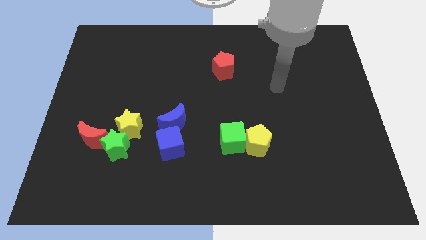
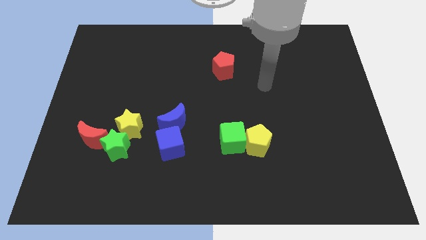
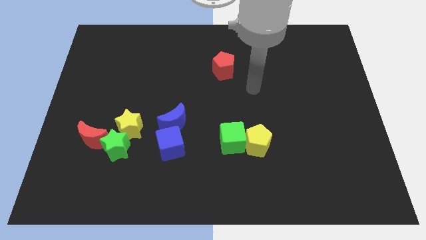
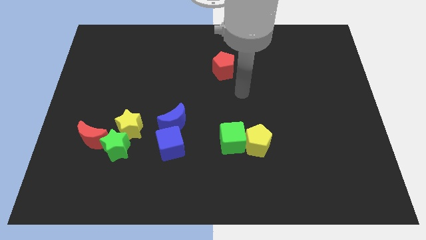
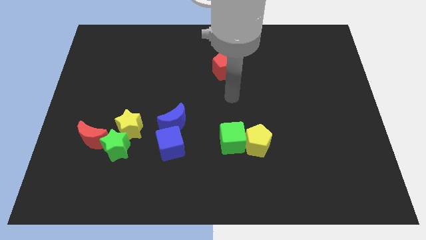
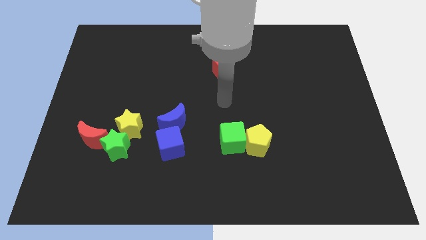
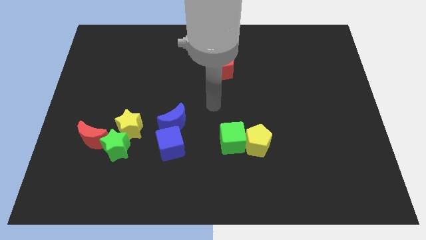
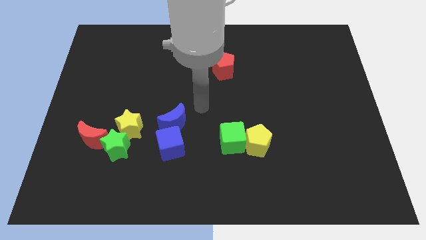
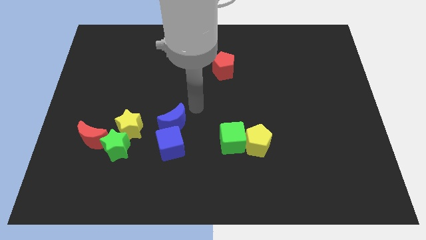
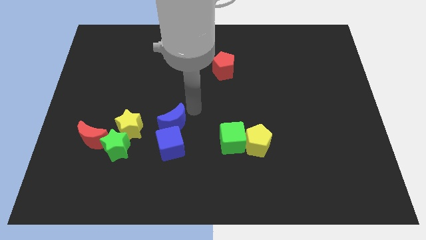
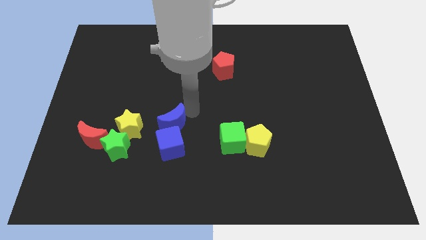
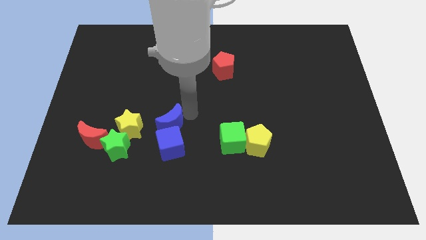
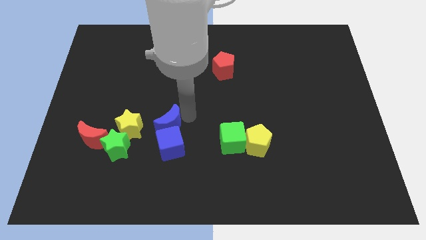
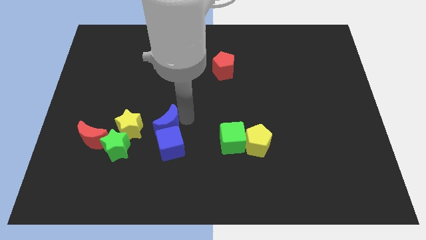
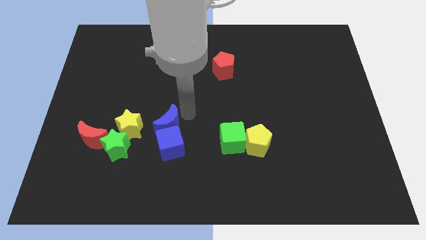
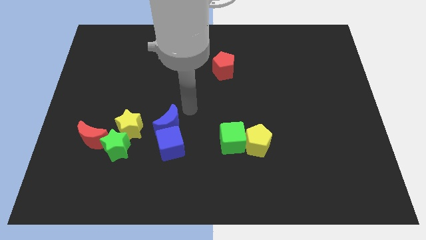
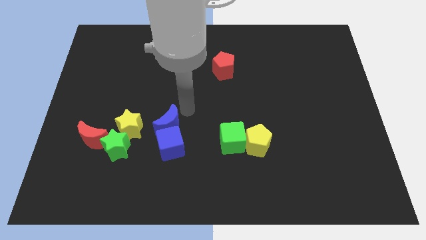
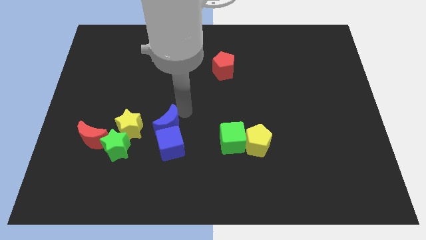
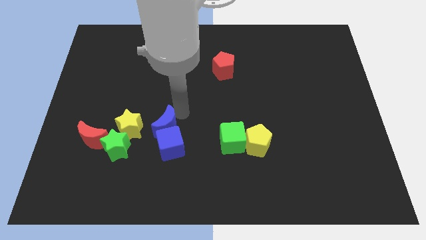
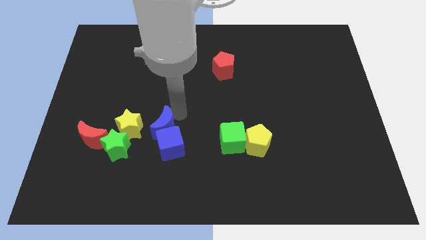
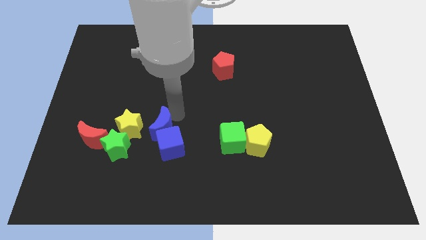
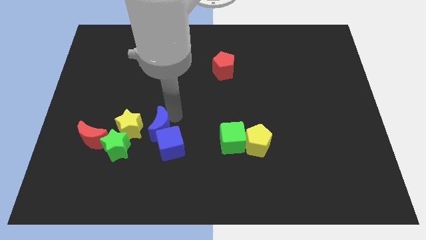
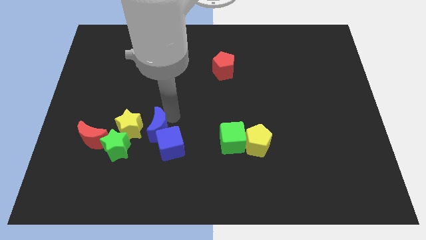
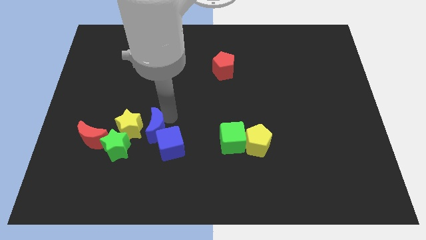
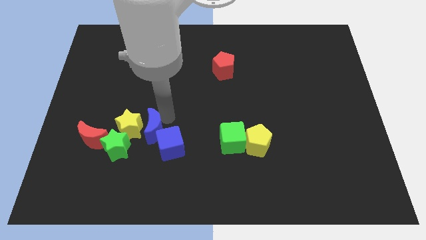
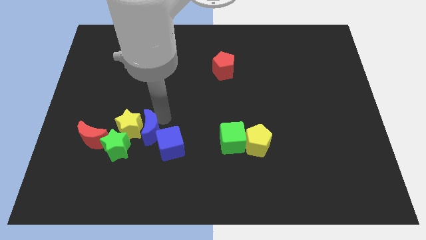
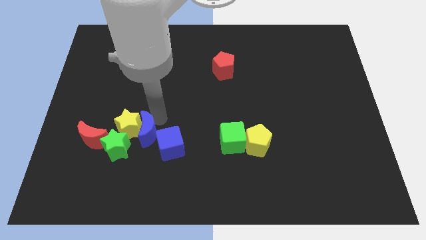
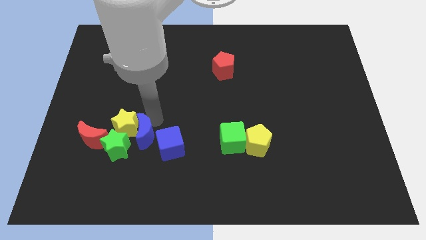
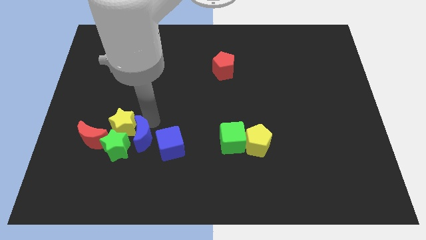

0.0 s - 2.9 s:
move the blue moon a bit diagonally downwards and left

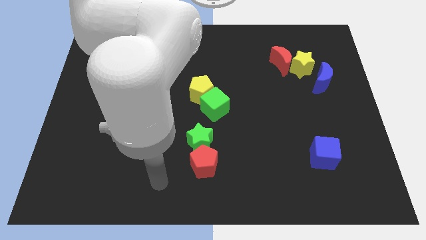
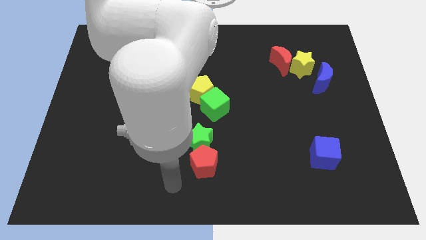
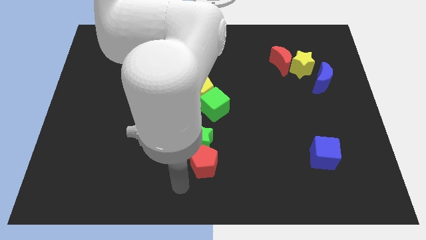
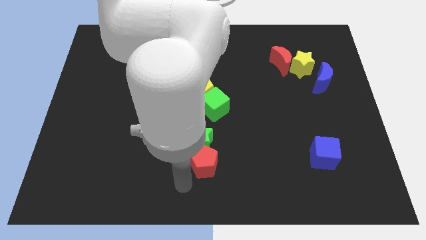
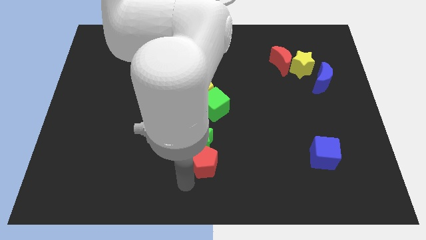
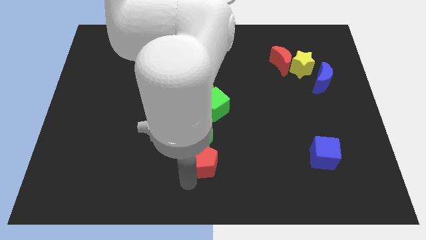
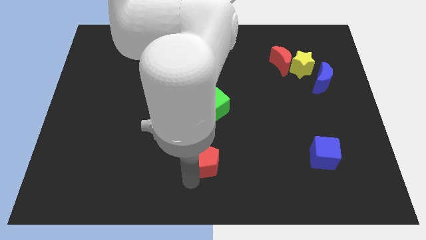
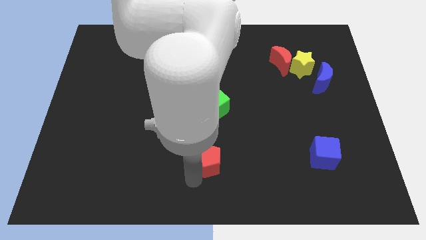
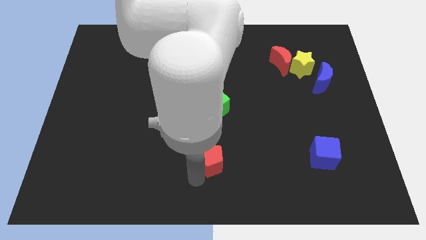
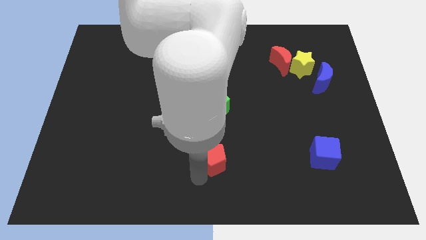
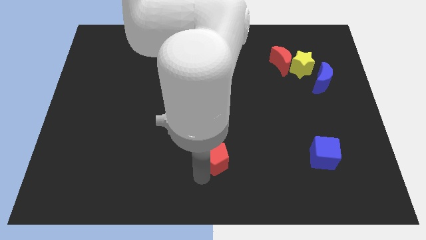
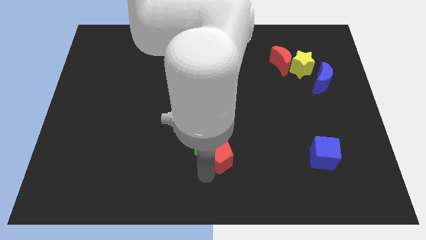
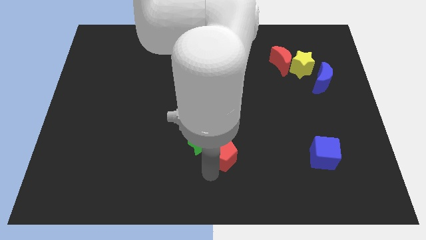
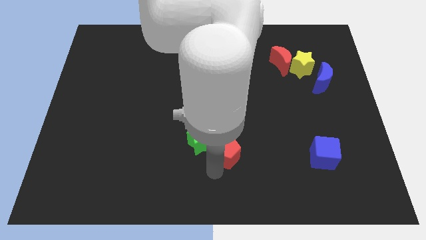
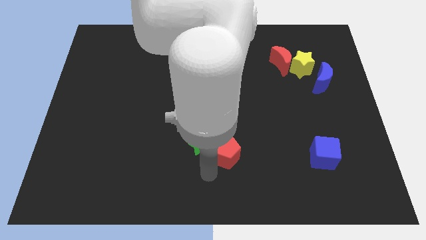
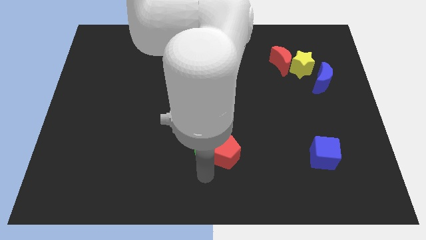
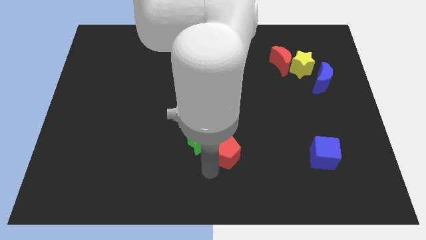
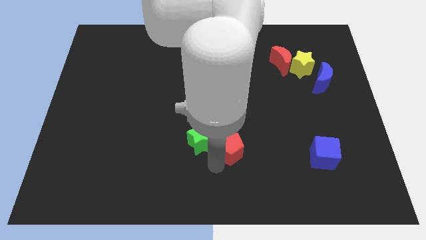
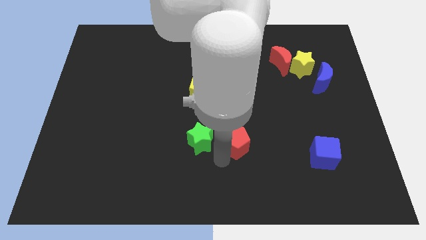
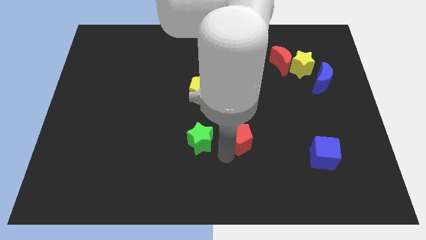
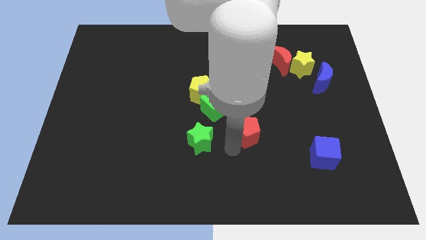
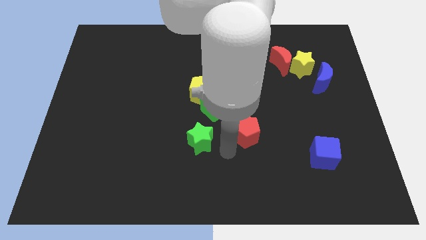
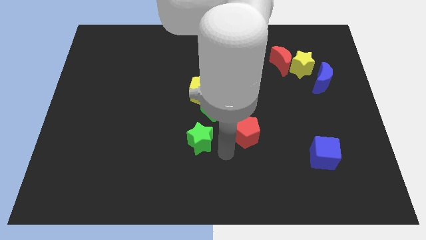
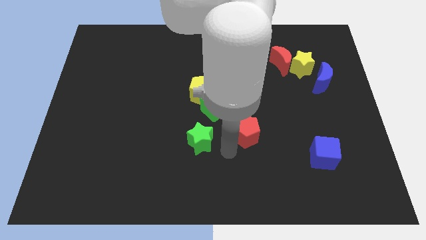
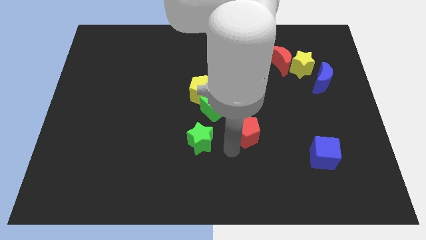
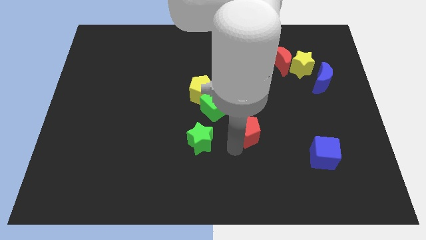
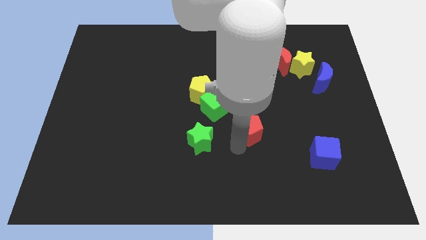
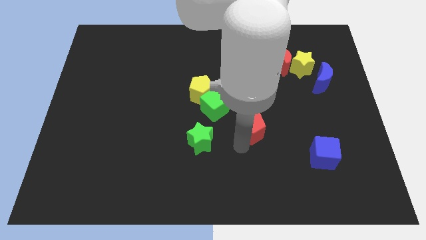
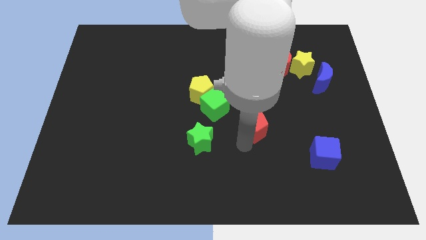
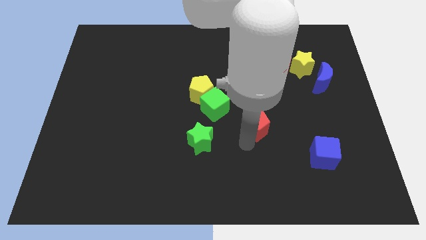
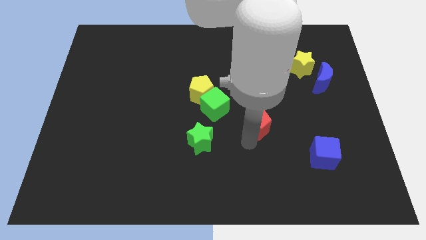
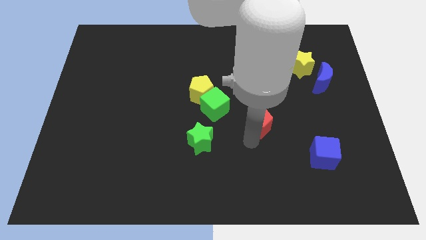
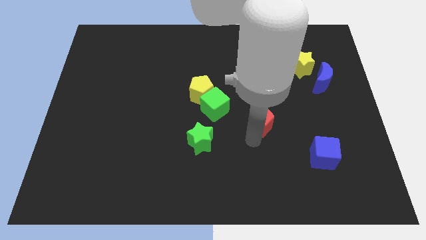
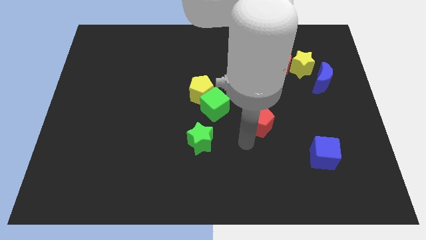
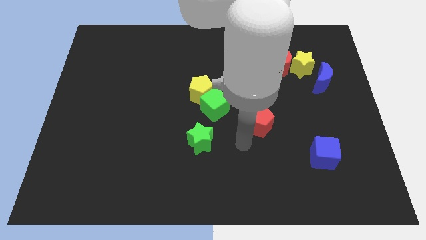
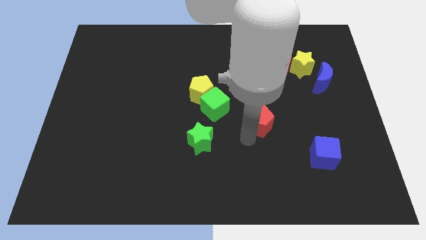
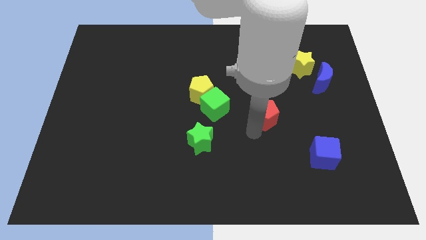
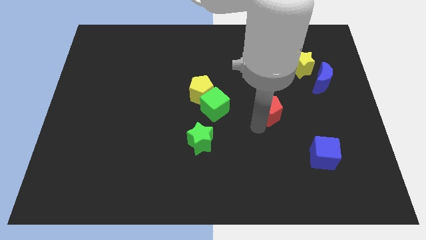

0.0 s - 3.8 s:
push the red pentagon upwards and then to the right

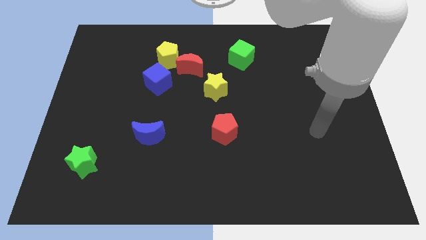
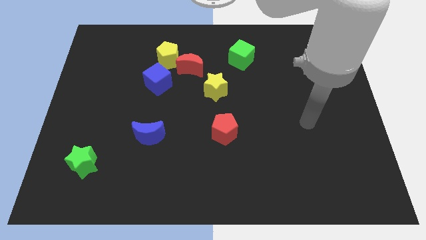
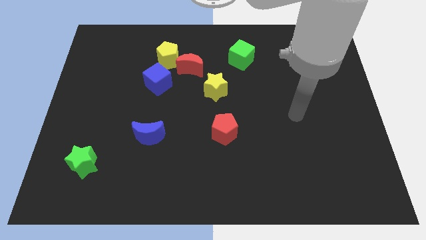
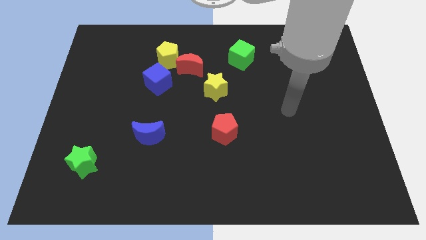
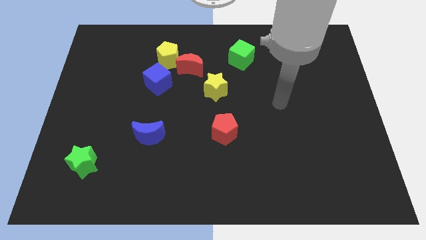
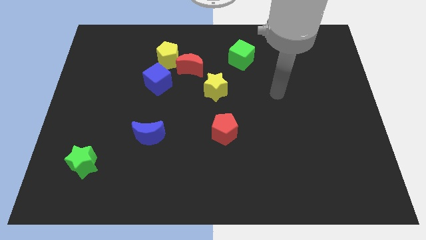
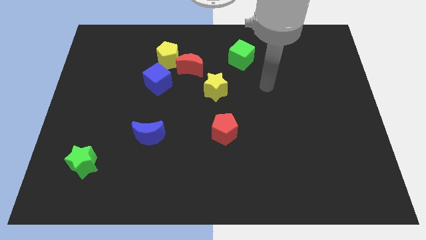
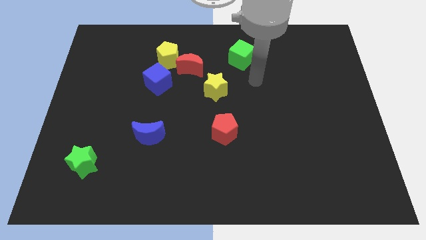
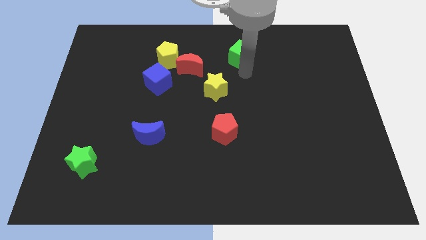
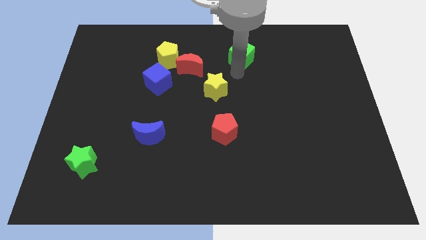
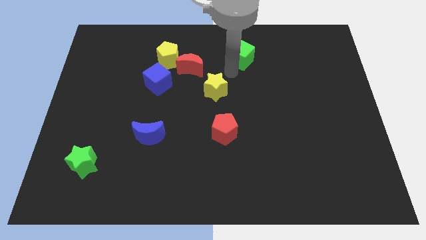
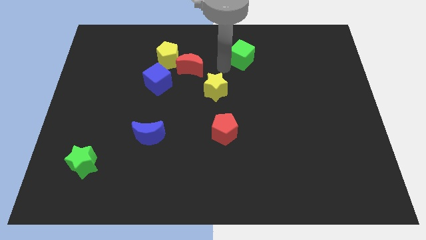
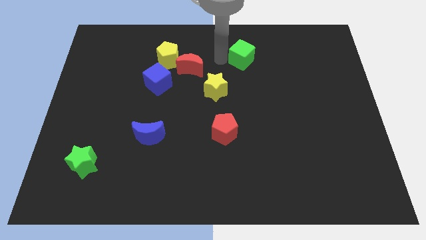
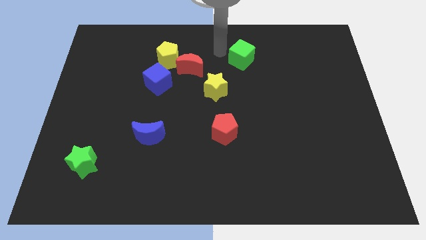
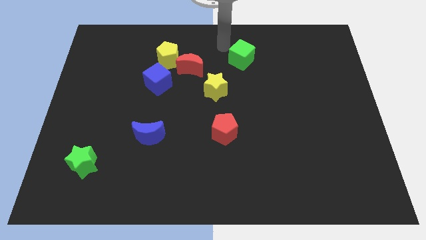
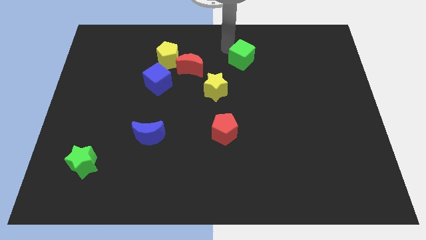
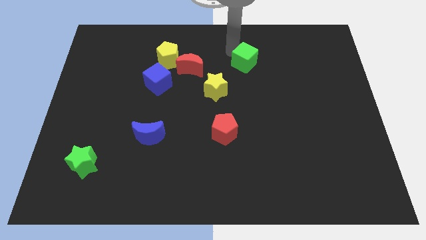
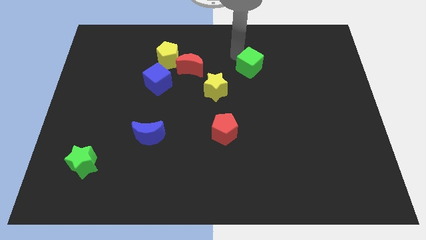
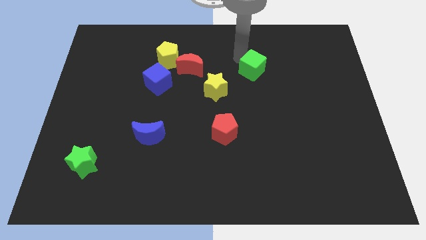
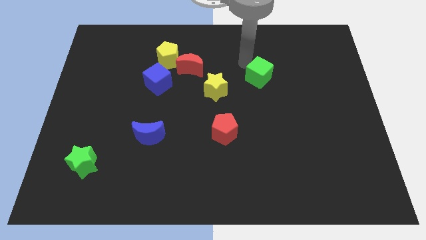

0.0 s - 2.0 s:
move the green cube a little down and to the right
